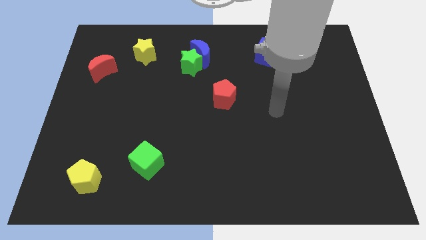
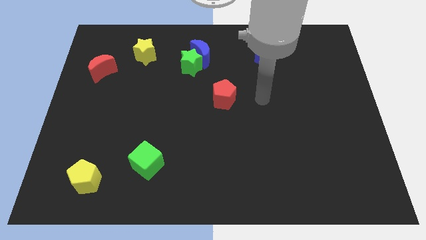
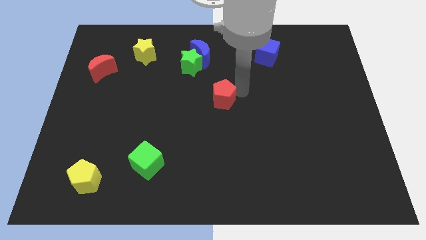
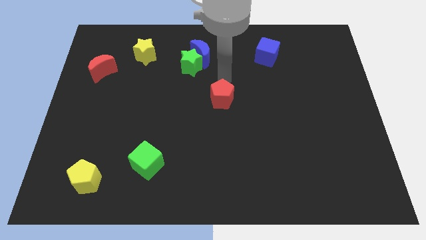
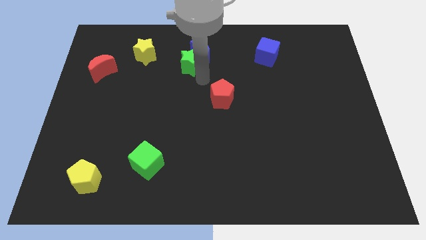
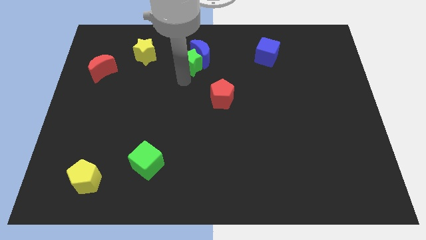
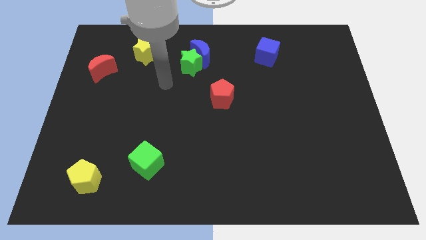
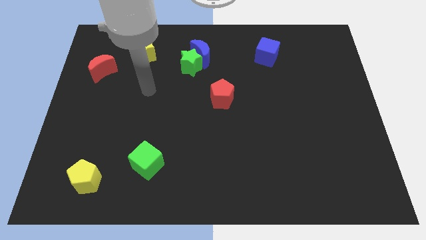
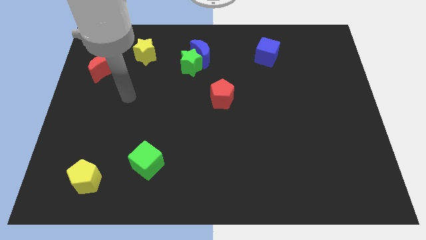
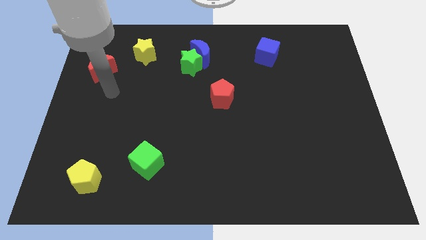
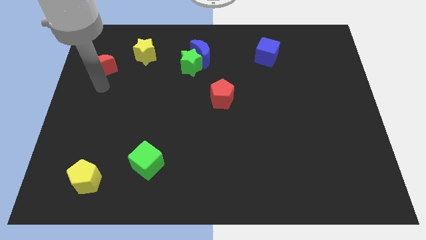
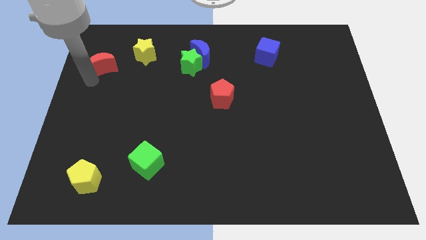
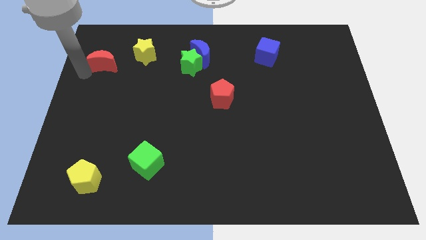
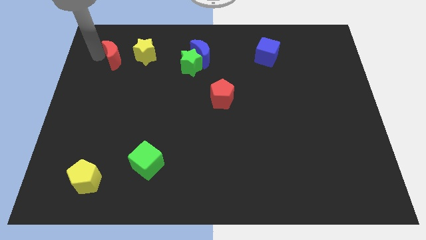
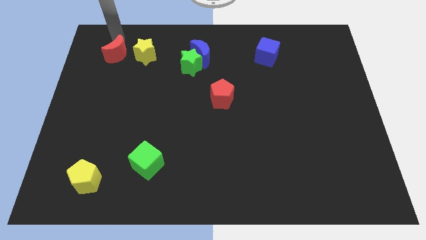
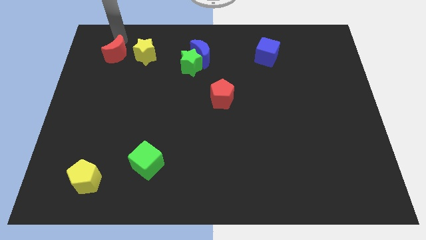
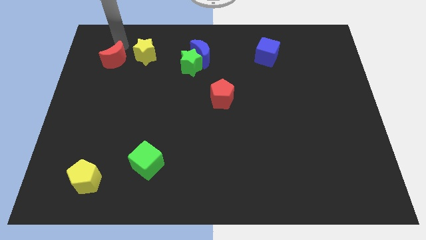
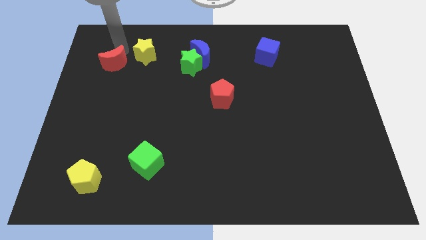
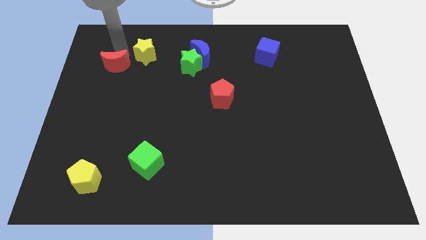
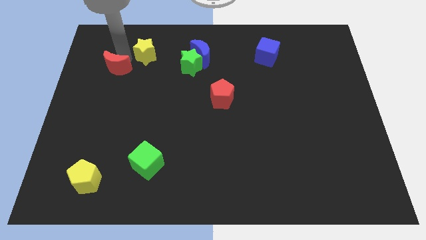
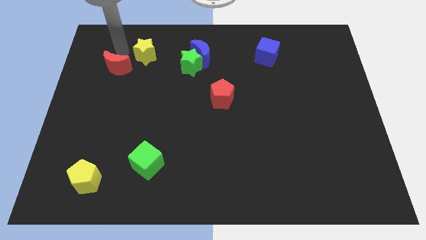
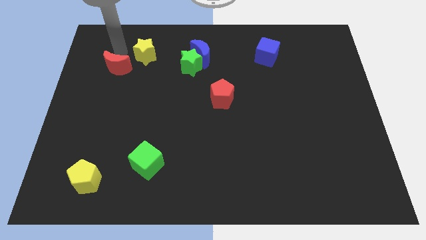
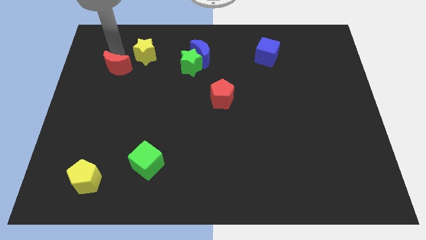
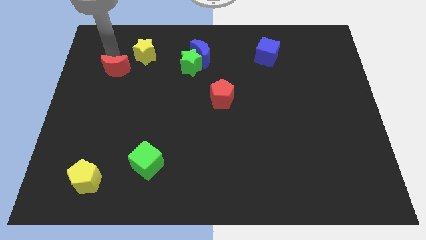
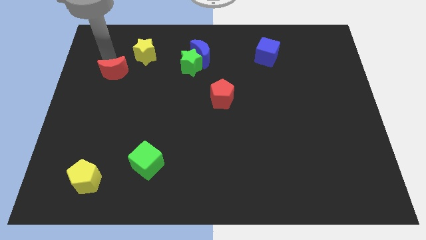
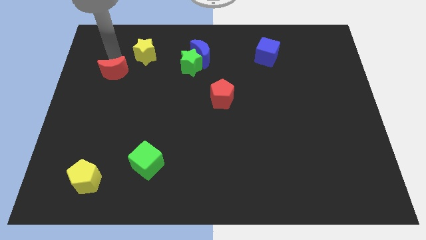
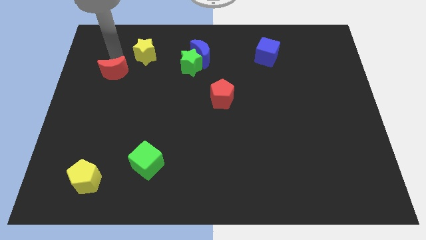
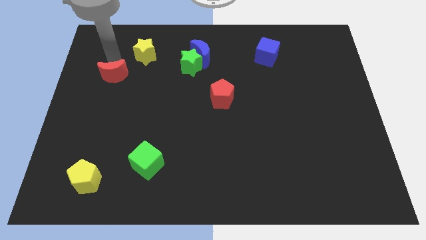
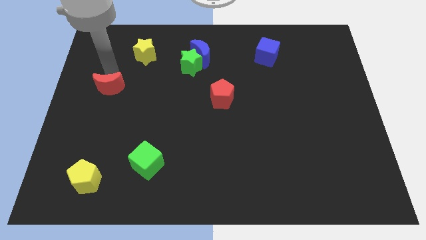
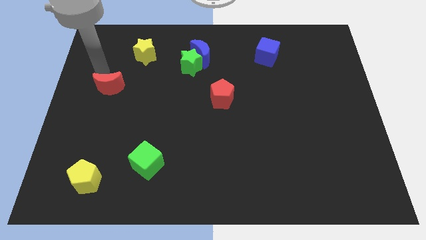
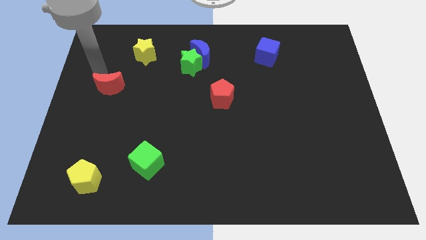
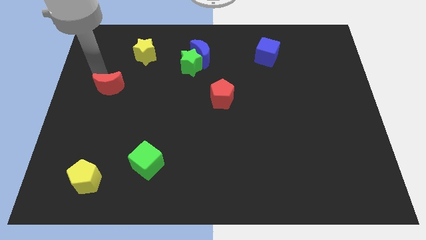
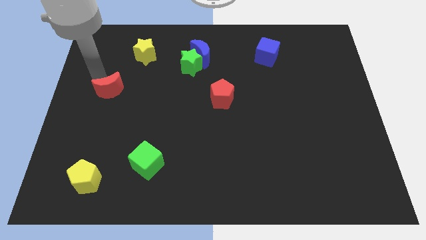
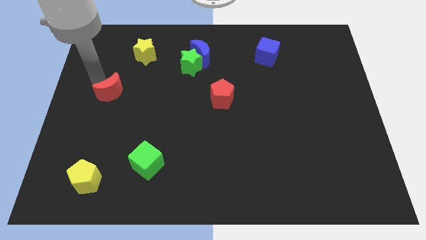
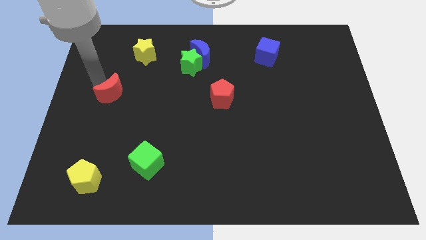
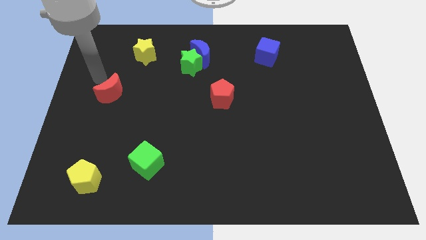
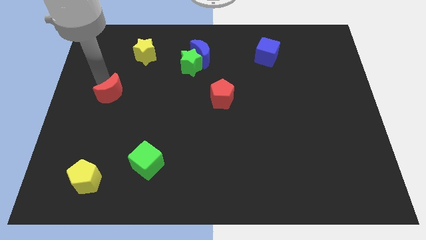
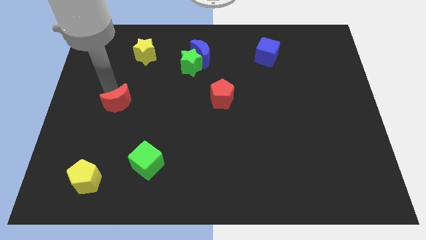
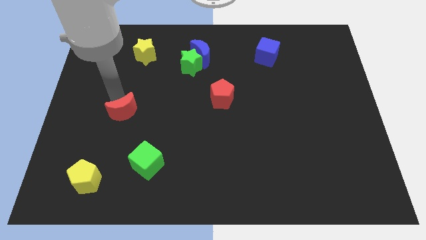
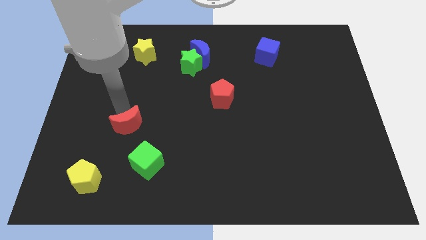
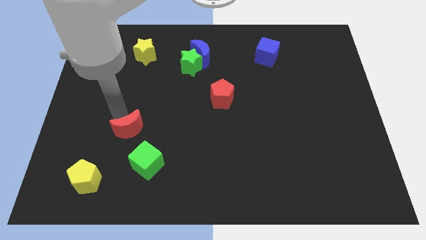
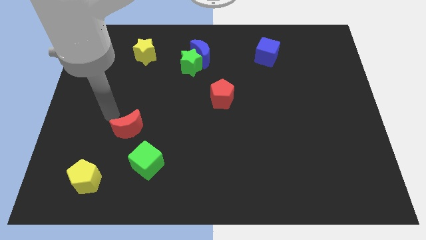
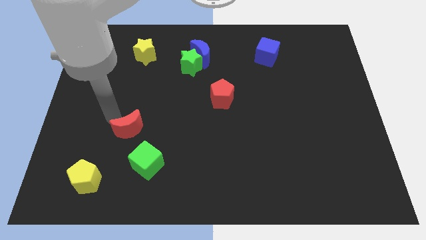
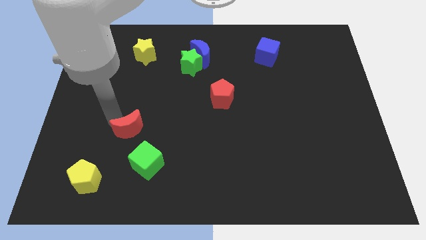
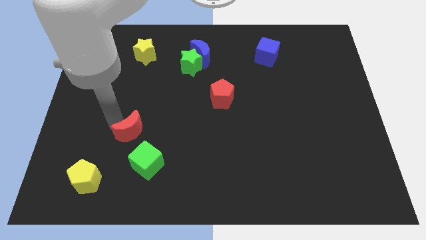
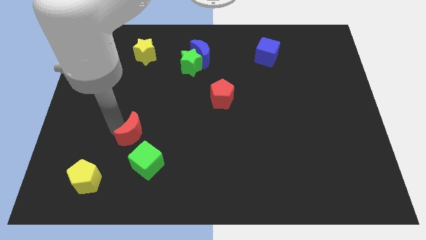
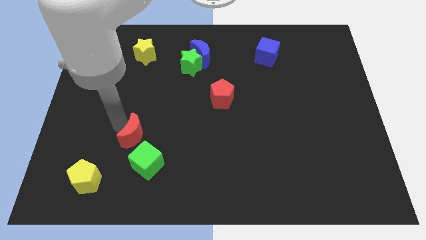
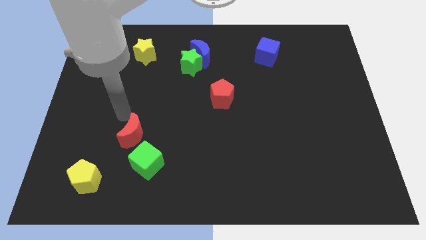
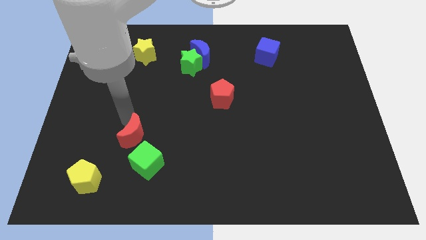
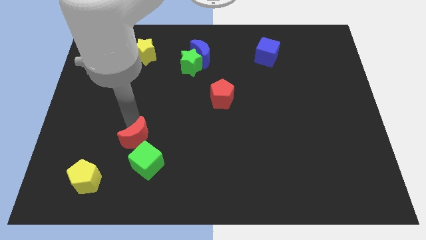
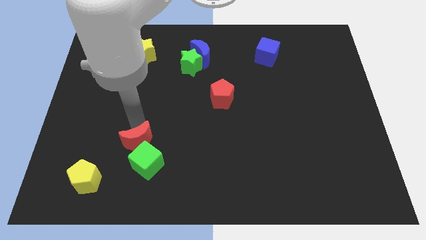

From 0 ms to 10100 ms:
push the red moon close to the green cube

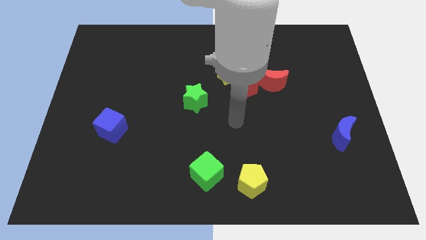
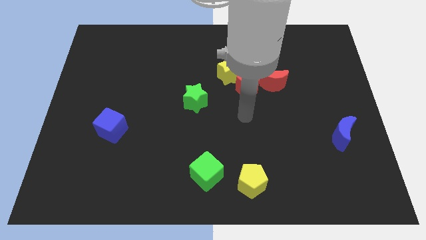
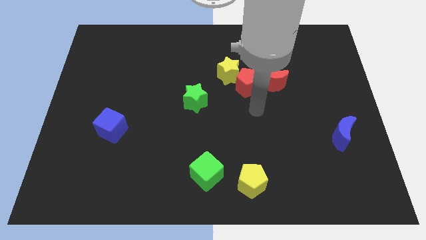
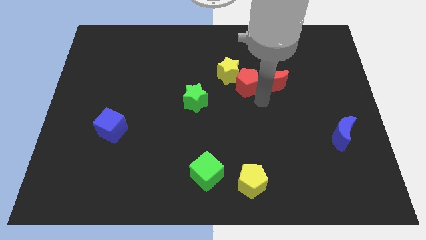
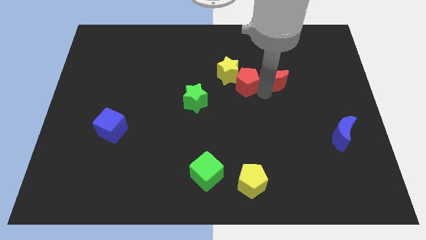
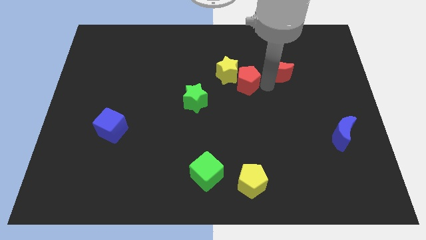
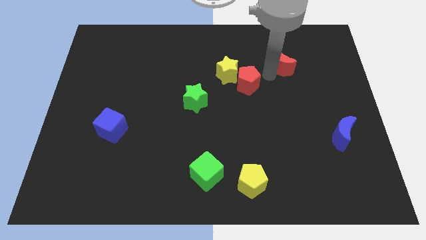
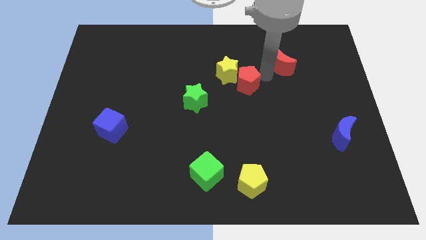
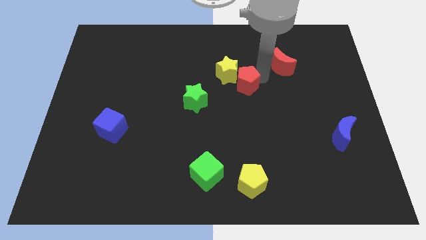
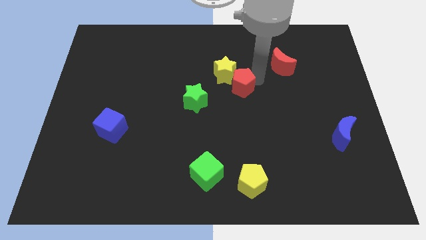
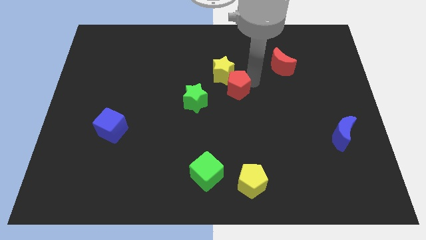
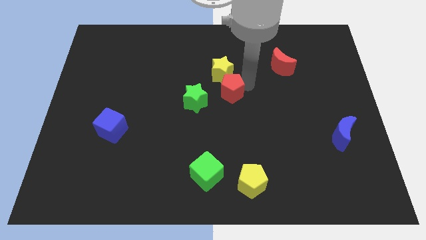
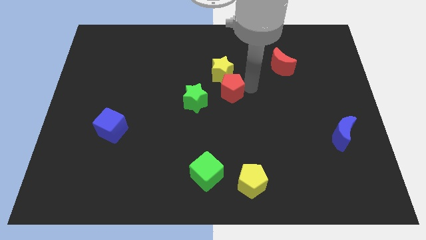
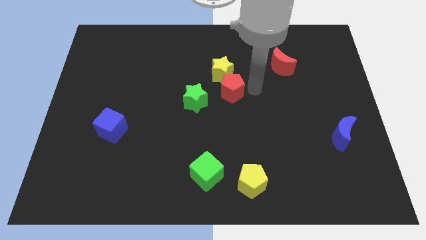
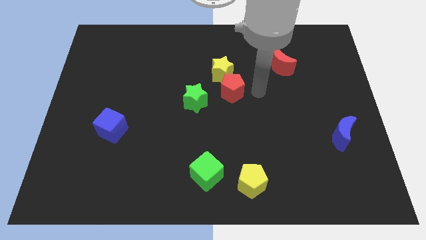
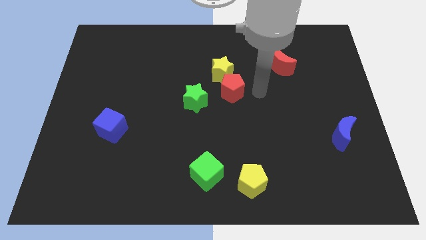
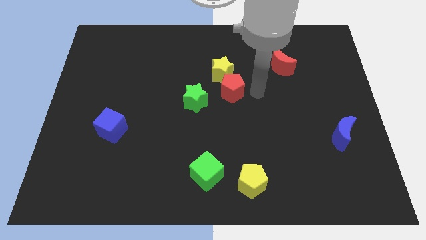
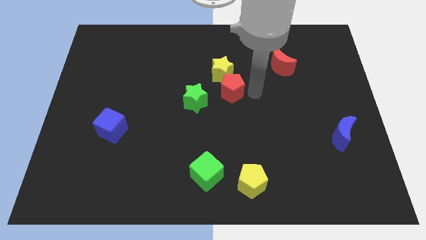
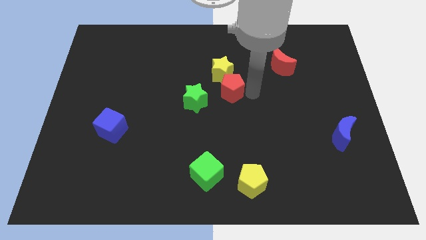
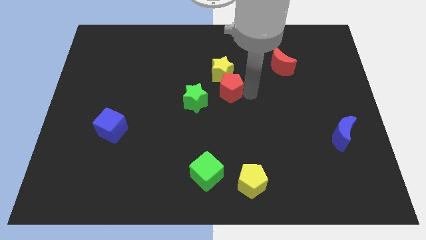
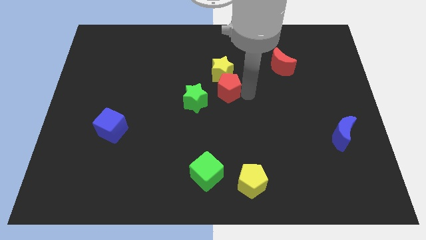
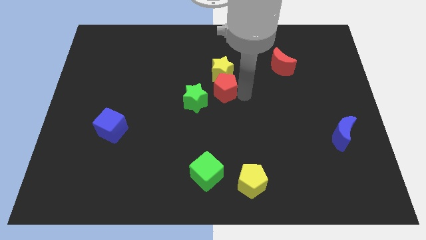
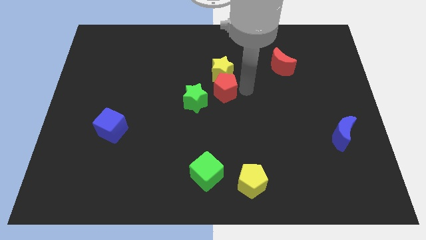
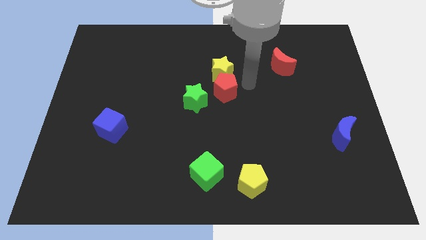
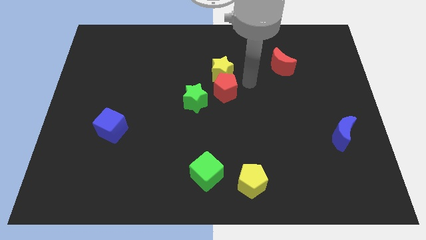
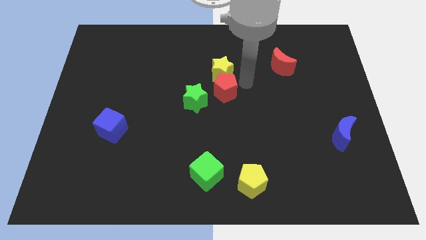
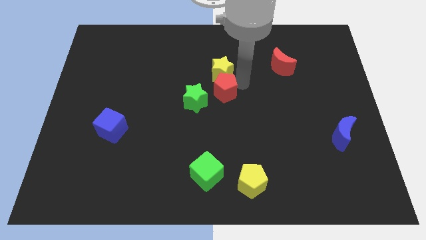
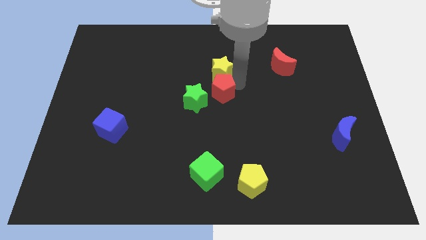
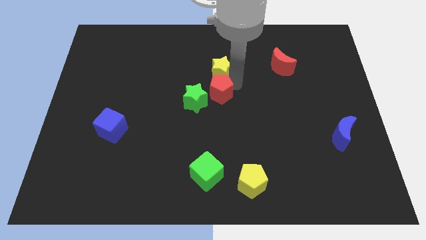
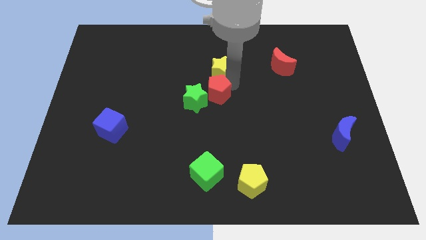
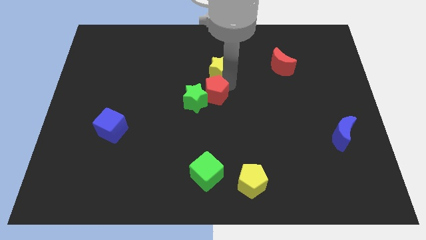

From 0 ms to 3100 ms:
push the red pentagon next to the green star
